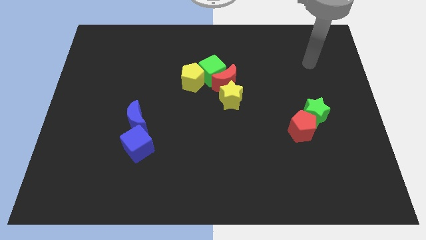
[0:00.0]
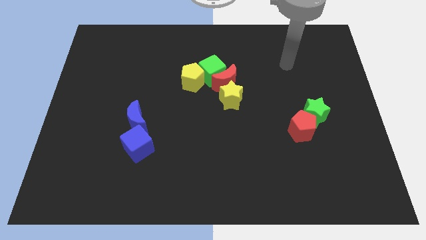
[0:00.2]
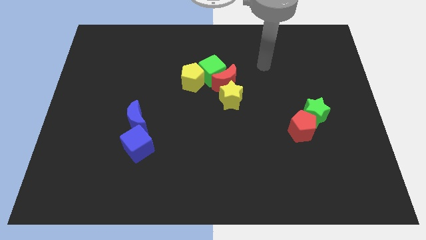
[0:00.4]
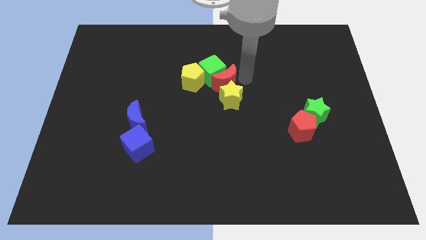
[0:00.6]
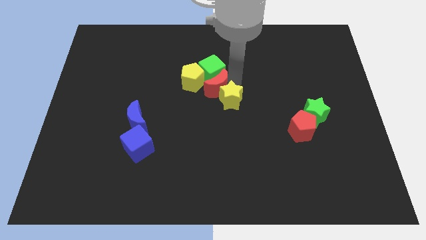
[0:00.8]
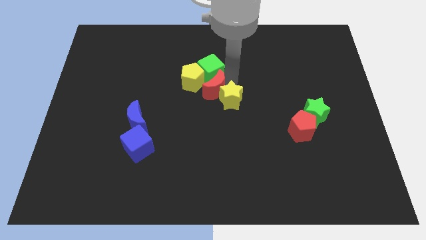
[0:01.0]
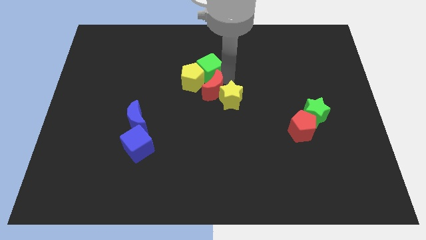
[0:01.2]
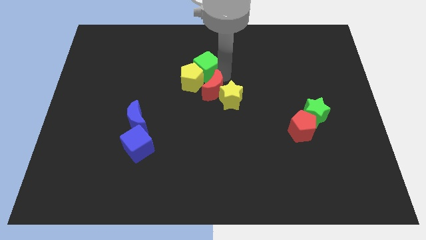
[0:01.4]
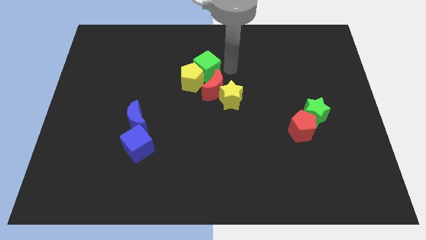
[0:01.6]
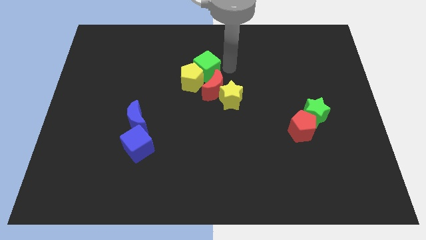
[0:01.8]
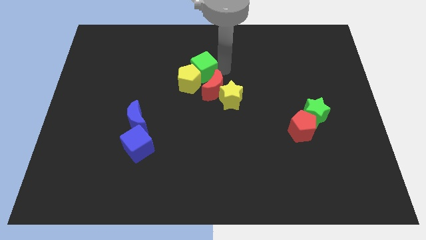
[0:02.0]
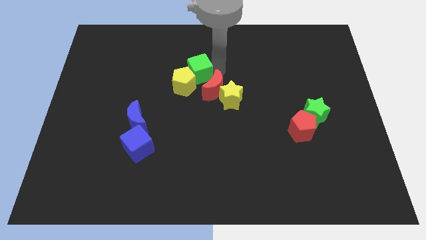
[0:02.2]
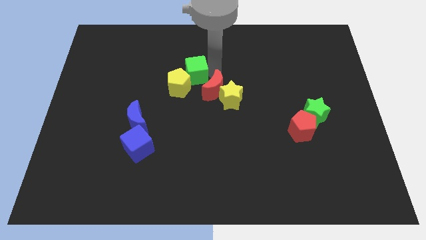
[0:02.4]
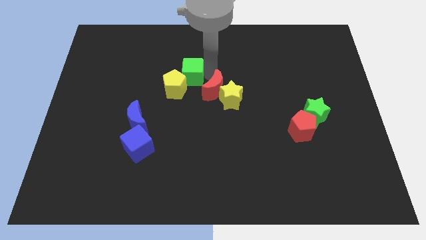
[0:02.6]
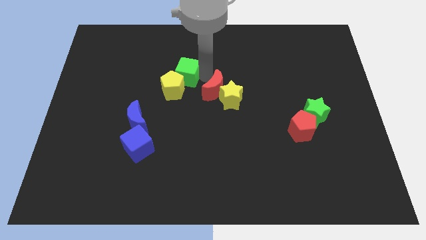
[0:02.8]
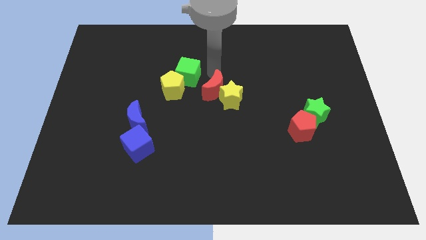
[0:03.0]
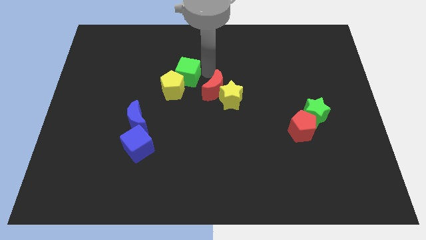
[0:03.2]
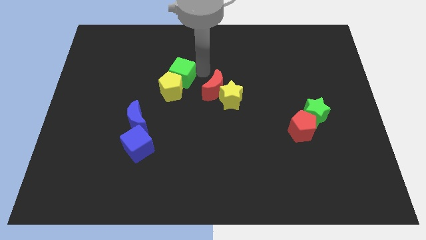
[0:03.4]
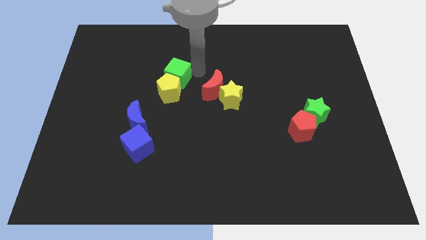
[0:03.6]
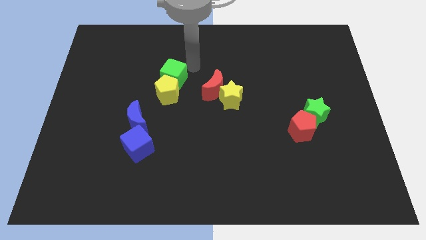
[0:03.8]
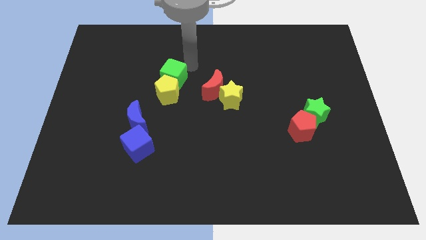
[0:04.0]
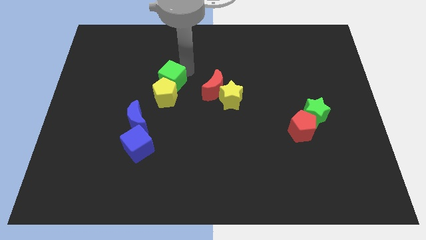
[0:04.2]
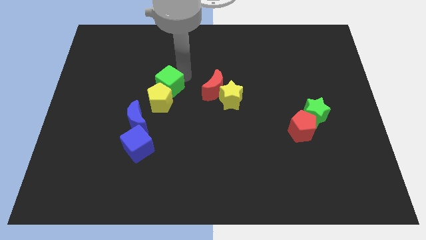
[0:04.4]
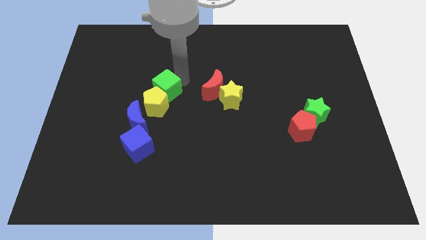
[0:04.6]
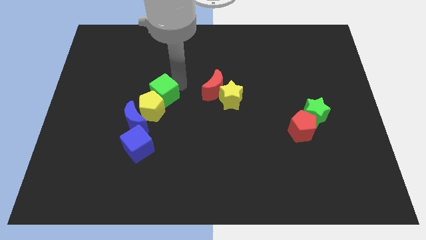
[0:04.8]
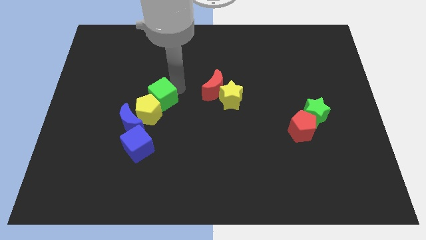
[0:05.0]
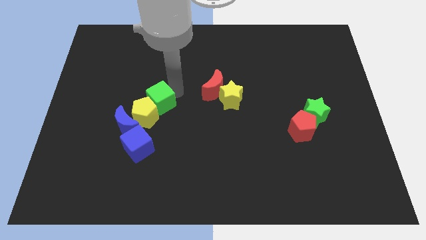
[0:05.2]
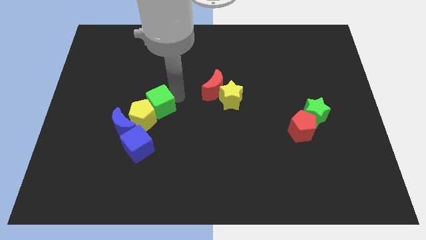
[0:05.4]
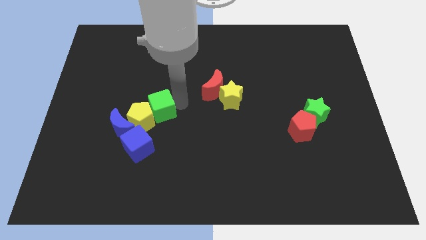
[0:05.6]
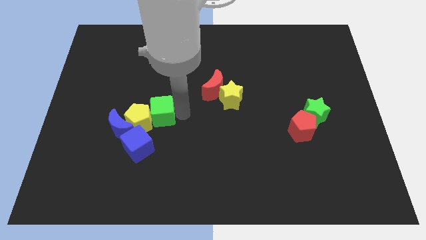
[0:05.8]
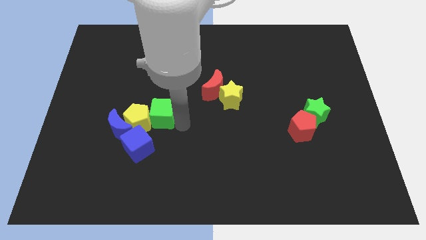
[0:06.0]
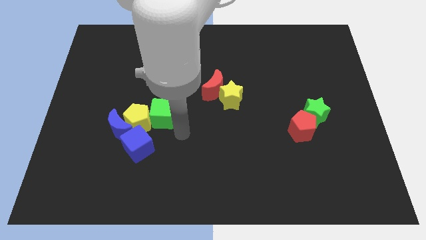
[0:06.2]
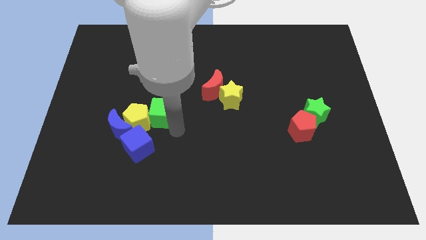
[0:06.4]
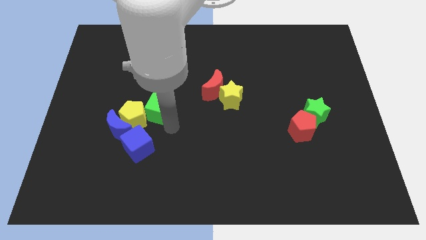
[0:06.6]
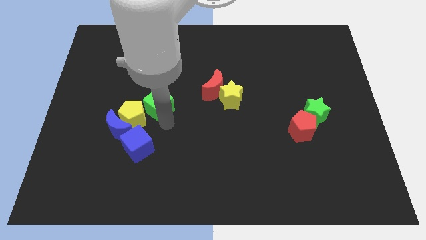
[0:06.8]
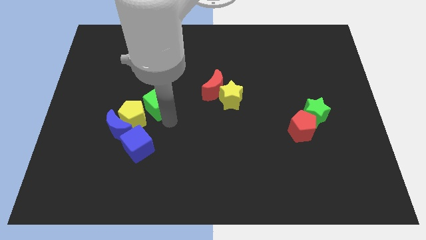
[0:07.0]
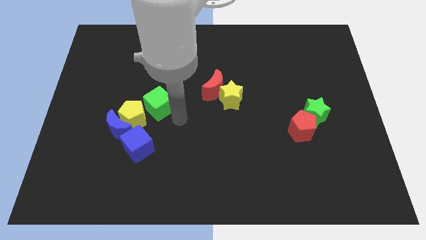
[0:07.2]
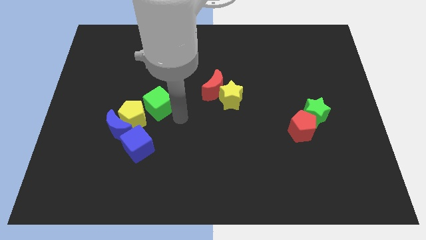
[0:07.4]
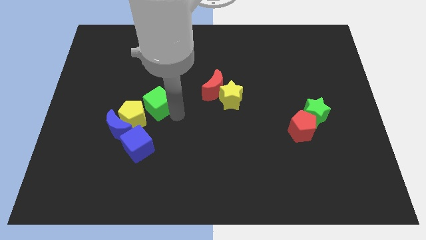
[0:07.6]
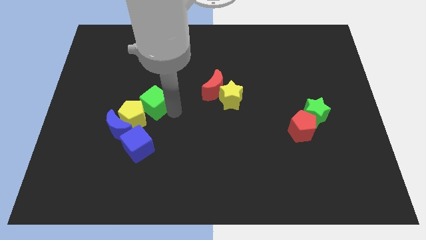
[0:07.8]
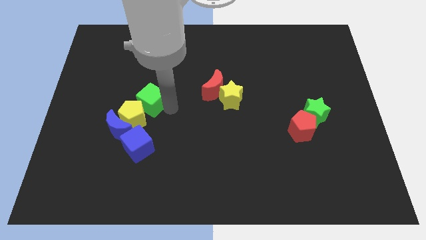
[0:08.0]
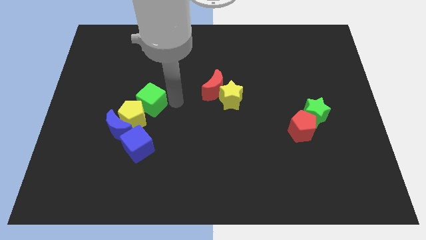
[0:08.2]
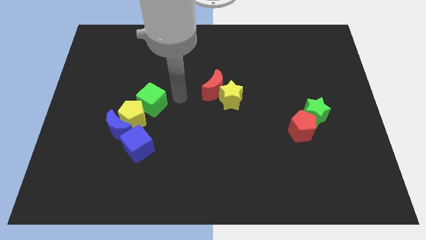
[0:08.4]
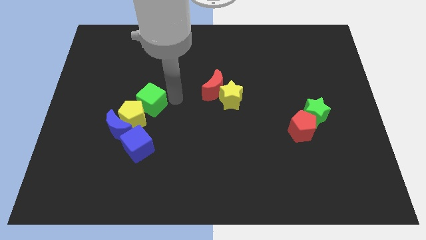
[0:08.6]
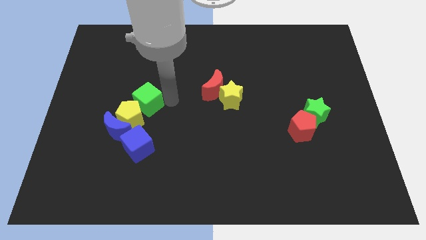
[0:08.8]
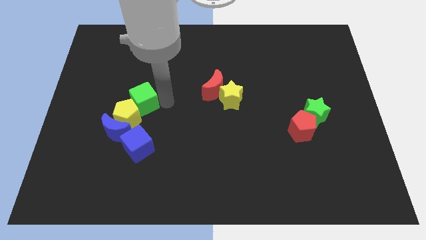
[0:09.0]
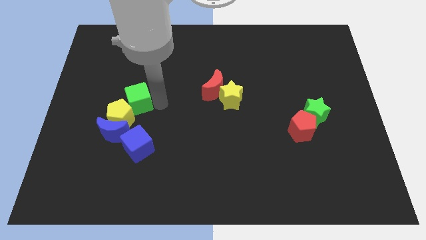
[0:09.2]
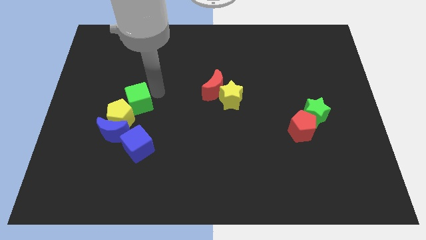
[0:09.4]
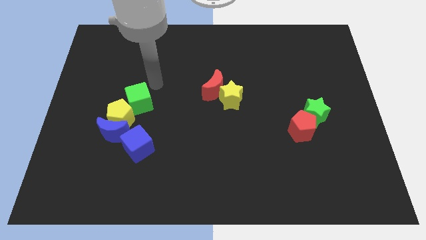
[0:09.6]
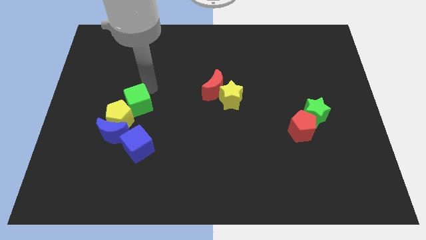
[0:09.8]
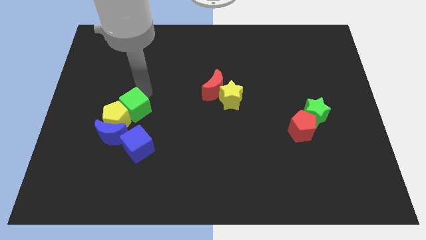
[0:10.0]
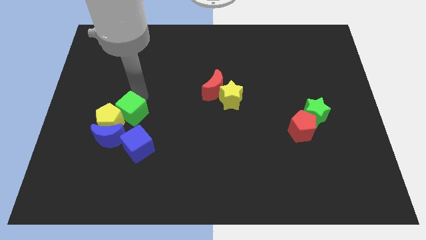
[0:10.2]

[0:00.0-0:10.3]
put the green cube diagonally up and to the left of the blue cube

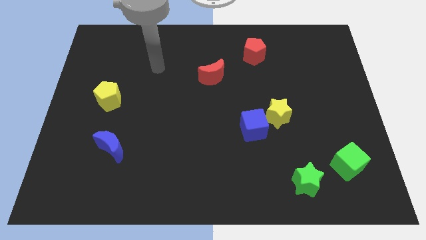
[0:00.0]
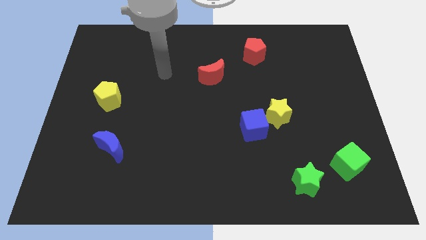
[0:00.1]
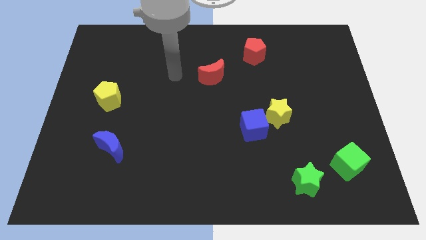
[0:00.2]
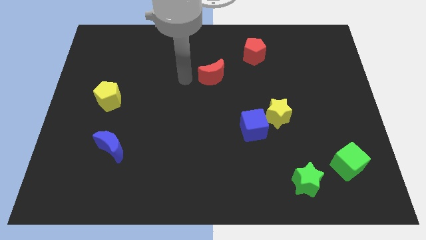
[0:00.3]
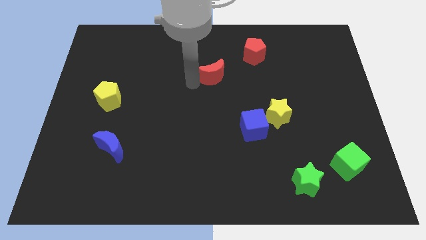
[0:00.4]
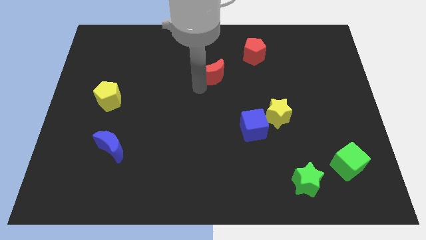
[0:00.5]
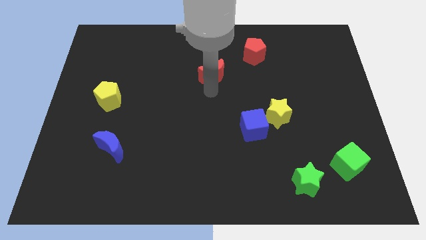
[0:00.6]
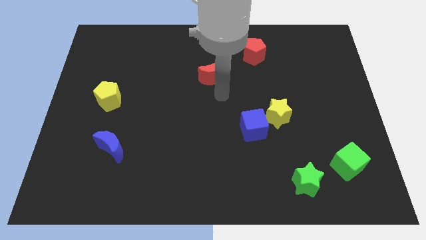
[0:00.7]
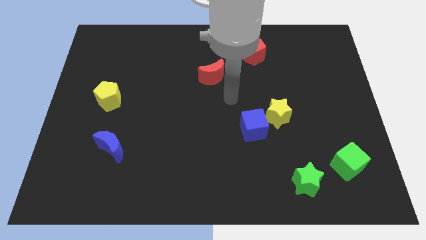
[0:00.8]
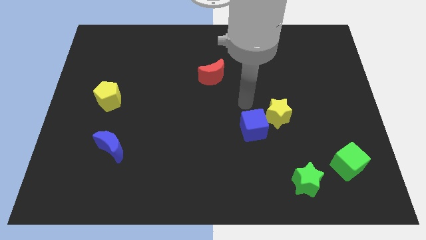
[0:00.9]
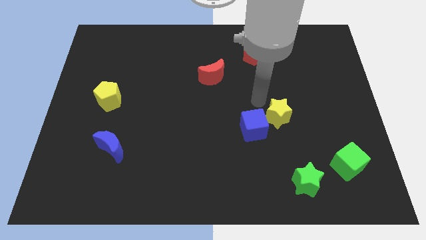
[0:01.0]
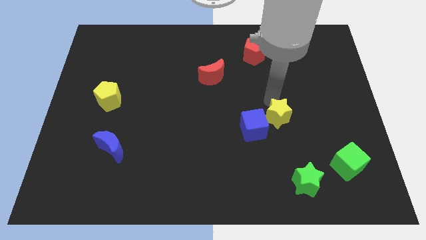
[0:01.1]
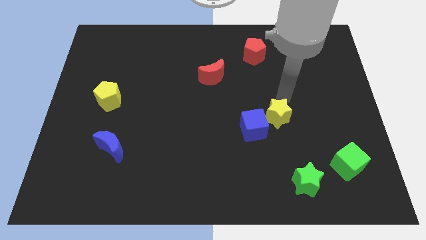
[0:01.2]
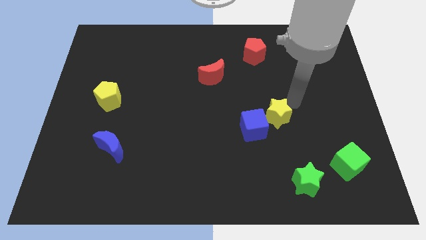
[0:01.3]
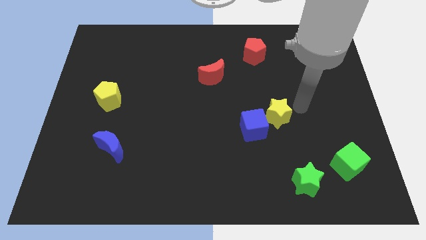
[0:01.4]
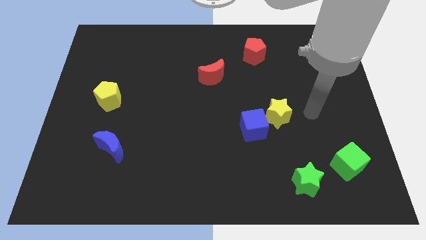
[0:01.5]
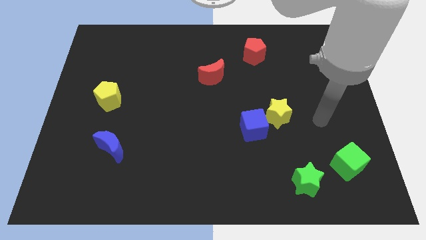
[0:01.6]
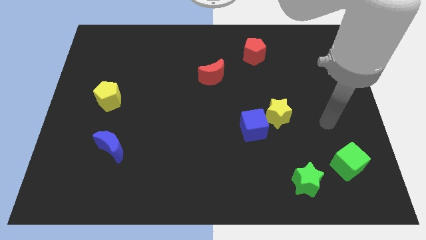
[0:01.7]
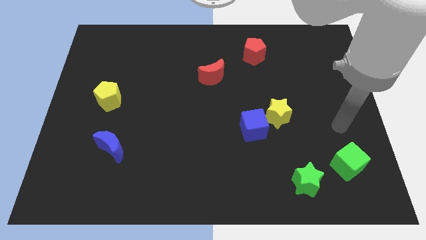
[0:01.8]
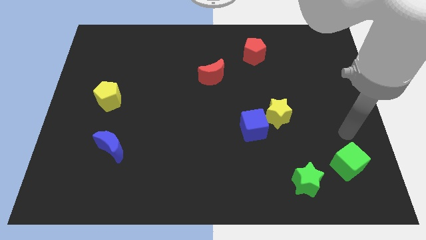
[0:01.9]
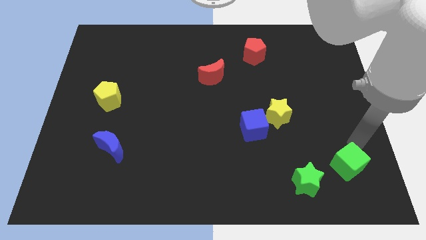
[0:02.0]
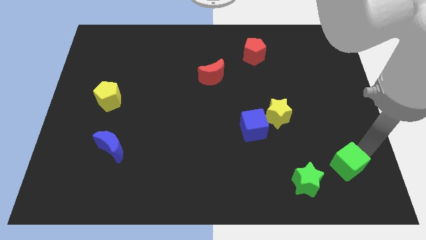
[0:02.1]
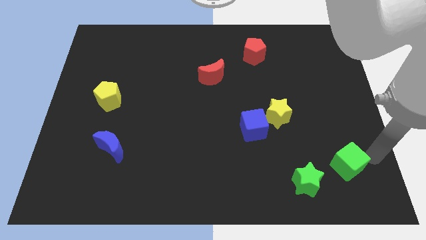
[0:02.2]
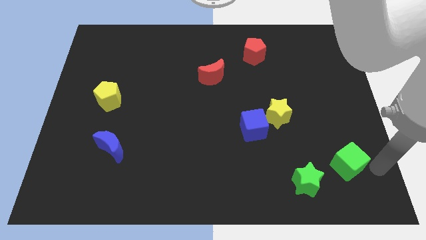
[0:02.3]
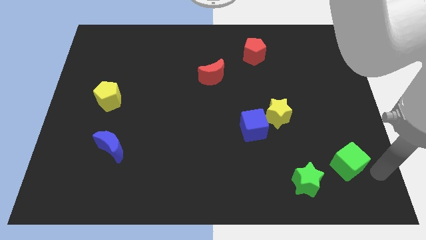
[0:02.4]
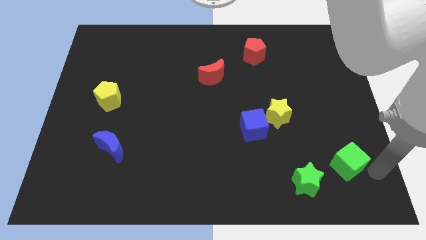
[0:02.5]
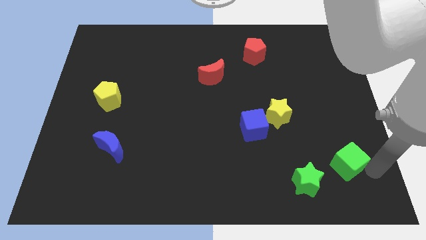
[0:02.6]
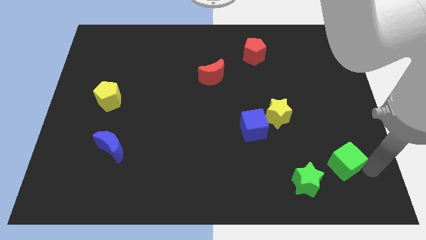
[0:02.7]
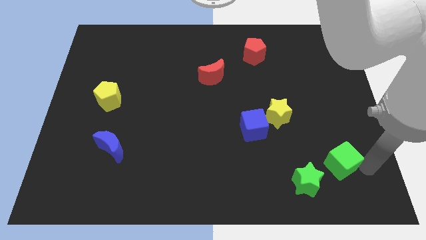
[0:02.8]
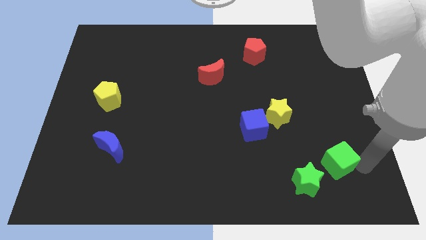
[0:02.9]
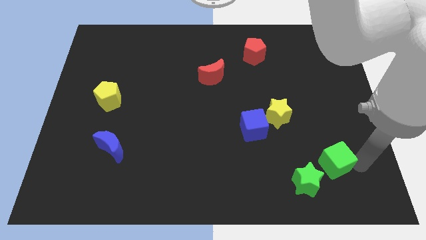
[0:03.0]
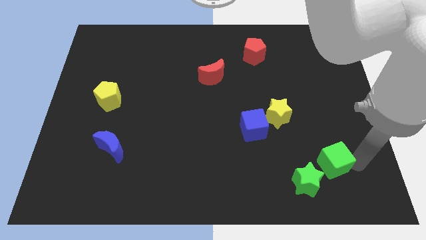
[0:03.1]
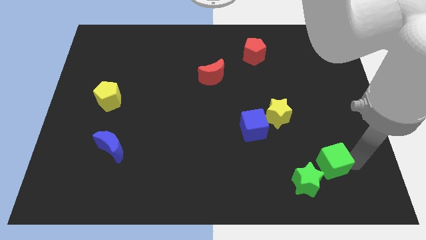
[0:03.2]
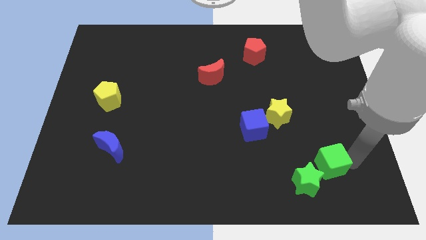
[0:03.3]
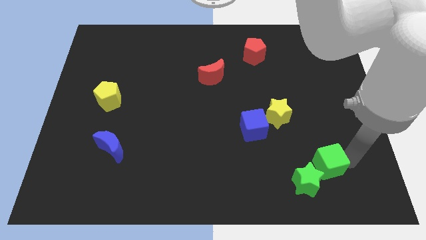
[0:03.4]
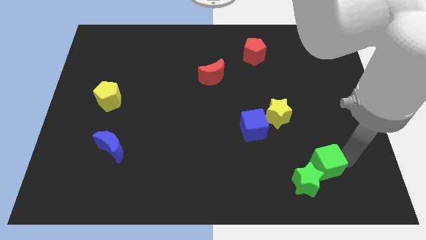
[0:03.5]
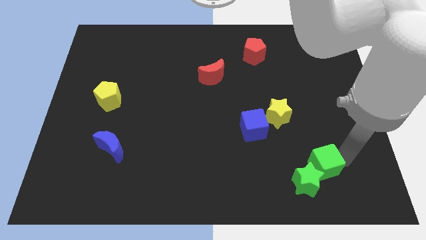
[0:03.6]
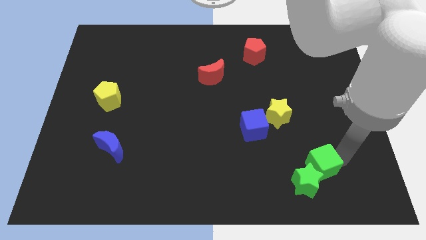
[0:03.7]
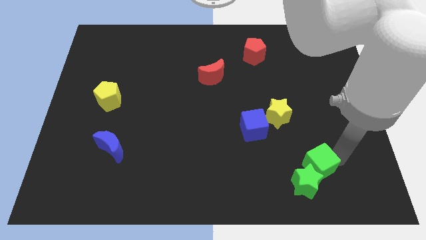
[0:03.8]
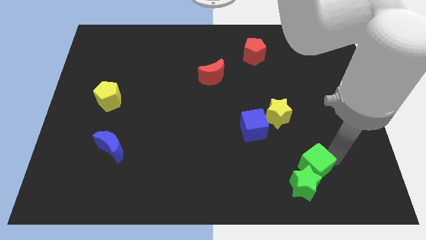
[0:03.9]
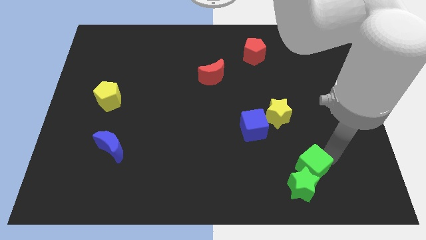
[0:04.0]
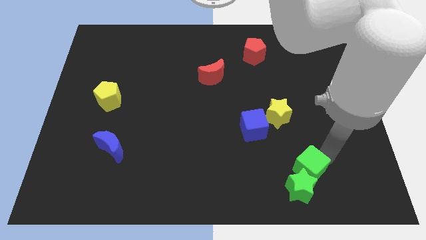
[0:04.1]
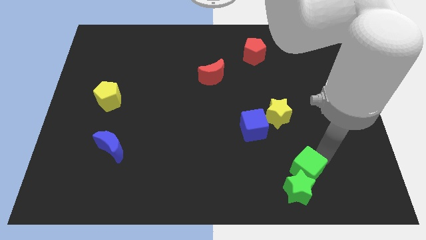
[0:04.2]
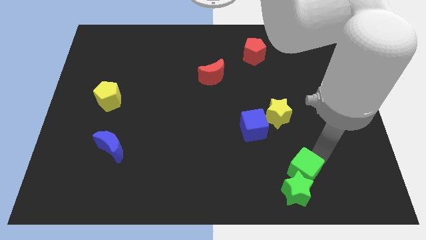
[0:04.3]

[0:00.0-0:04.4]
move the green cube below the yellow star
